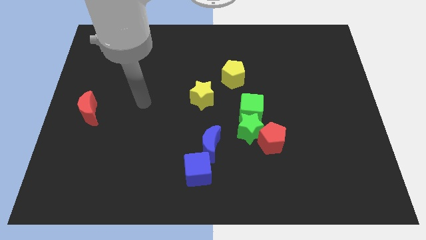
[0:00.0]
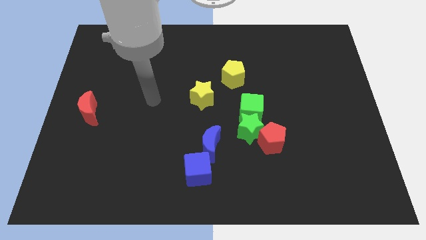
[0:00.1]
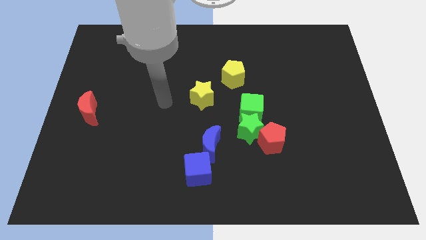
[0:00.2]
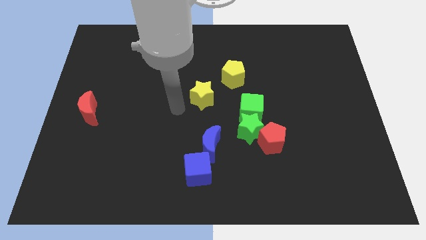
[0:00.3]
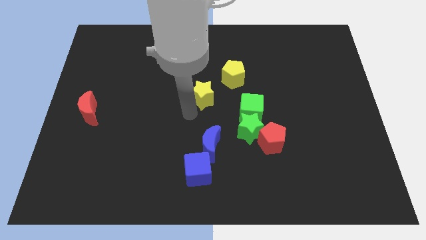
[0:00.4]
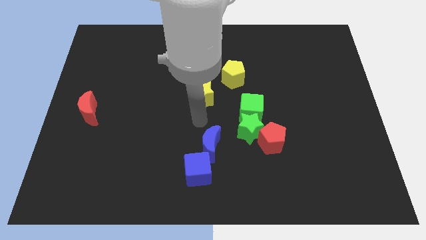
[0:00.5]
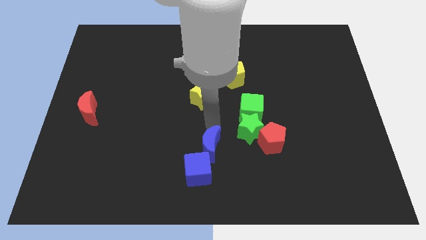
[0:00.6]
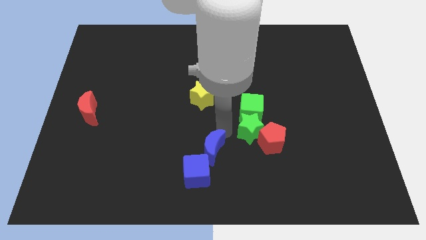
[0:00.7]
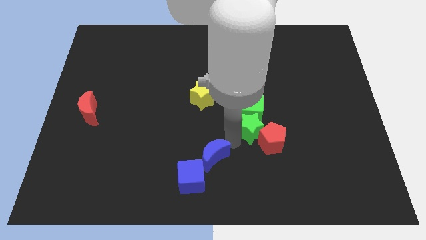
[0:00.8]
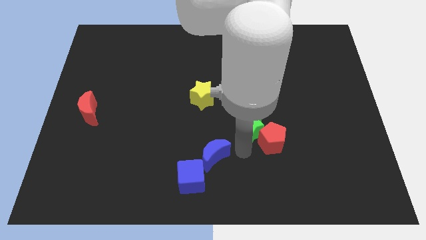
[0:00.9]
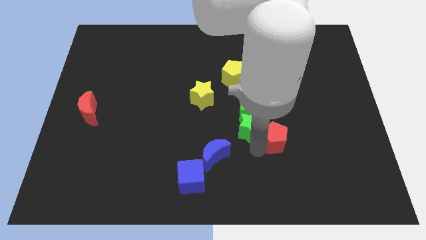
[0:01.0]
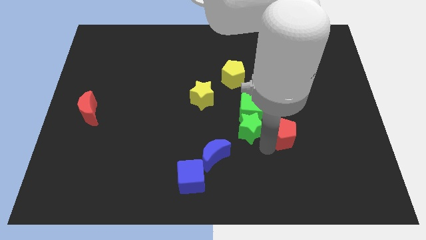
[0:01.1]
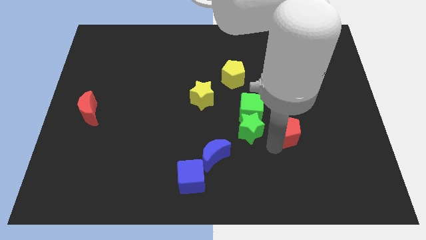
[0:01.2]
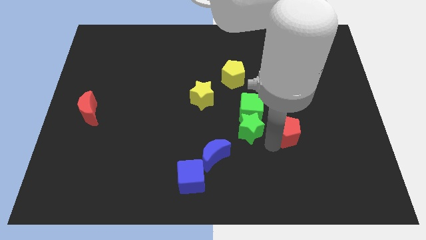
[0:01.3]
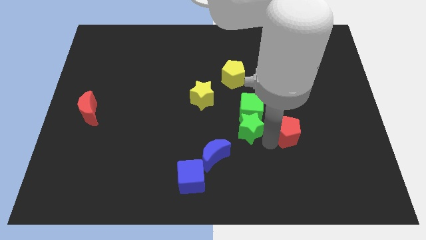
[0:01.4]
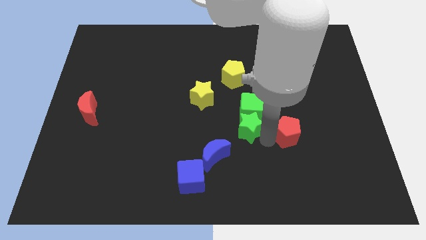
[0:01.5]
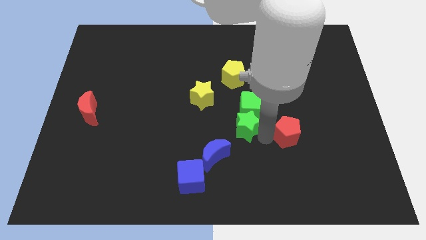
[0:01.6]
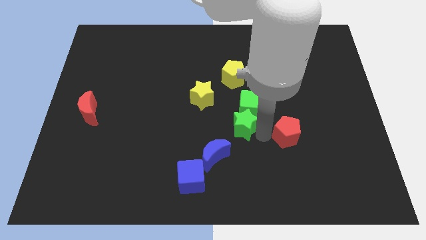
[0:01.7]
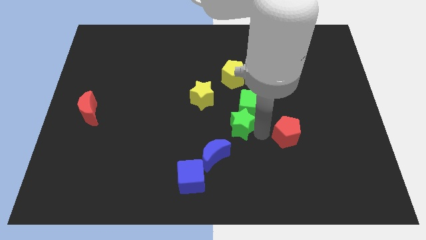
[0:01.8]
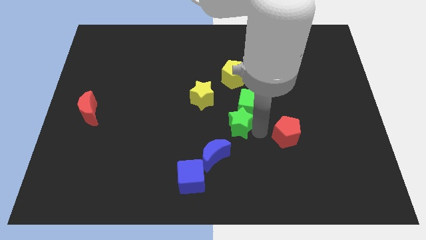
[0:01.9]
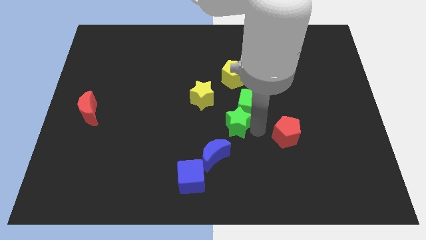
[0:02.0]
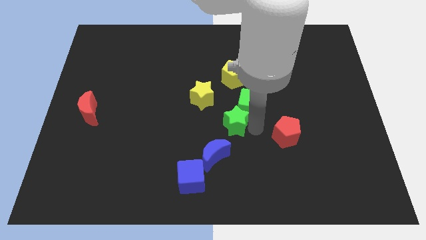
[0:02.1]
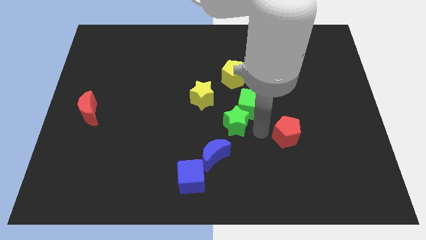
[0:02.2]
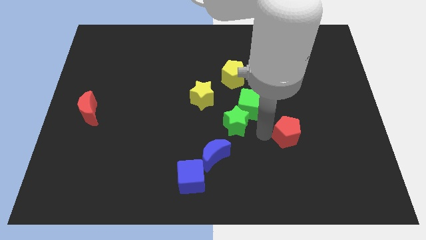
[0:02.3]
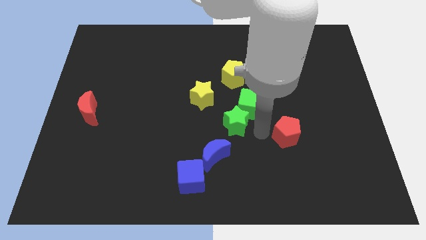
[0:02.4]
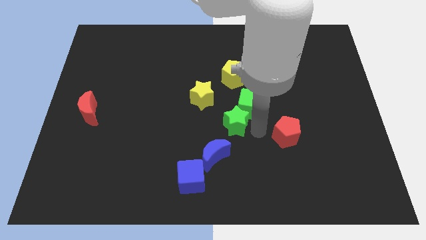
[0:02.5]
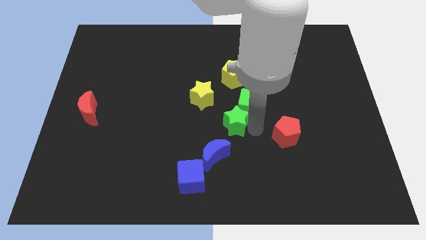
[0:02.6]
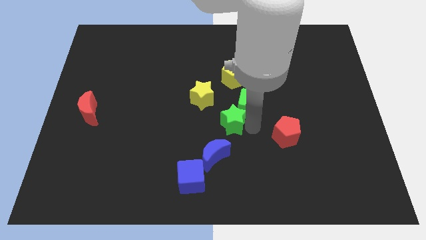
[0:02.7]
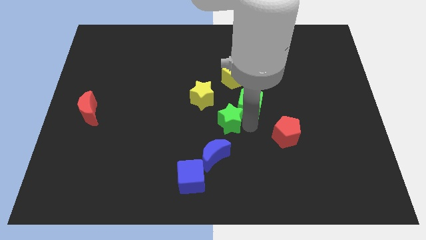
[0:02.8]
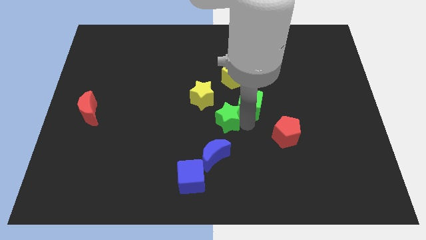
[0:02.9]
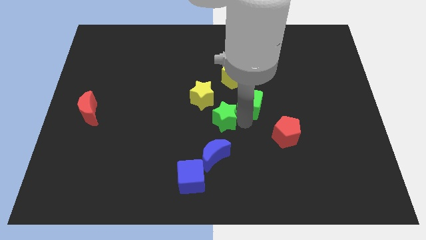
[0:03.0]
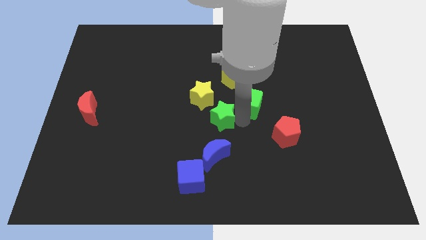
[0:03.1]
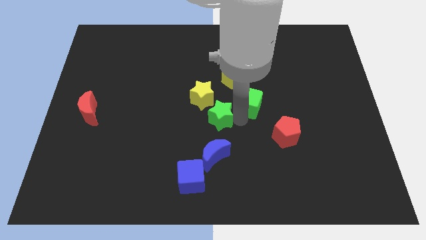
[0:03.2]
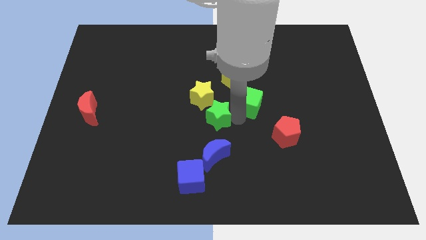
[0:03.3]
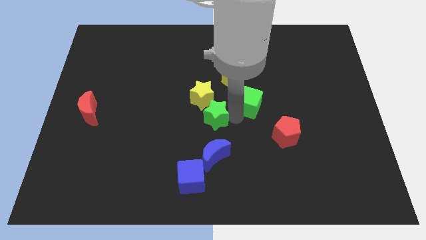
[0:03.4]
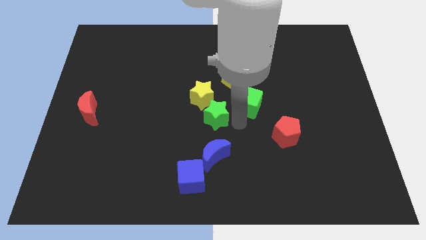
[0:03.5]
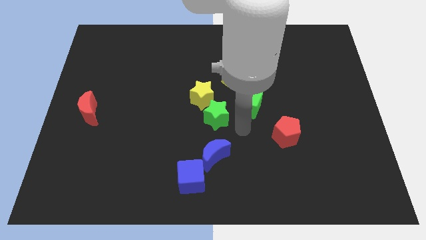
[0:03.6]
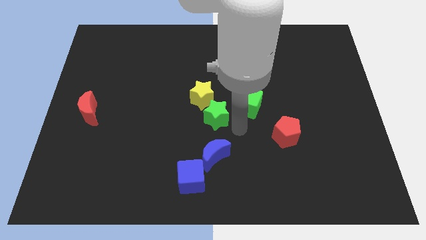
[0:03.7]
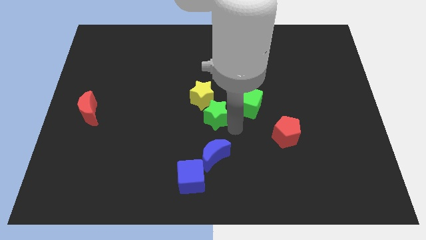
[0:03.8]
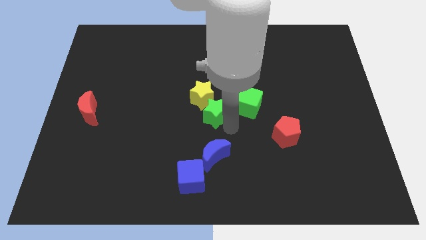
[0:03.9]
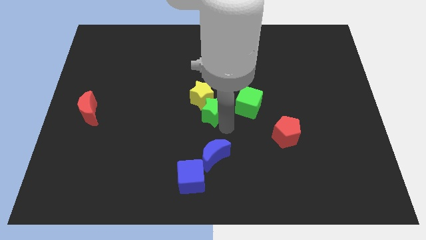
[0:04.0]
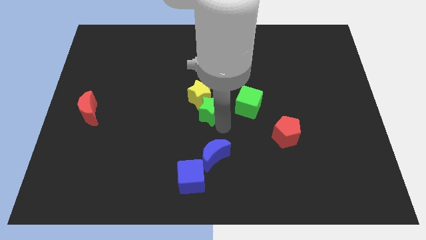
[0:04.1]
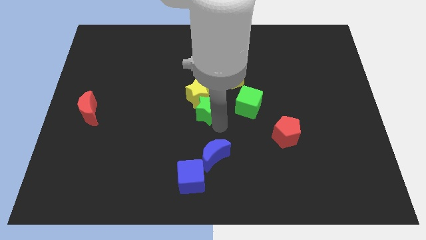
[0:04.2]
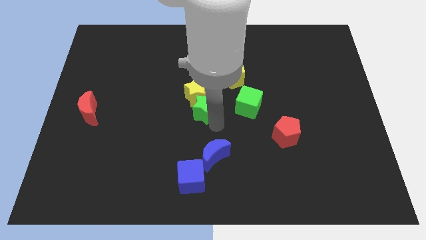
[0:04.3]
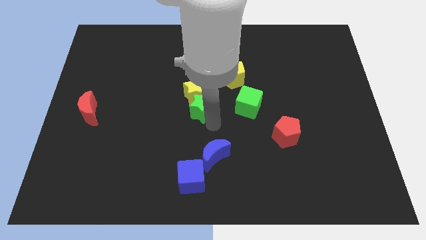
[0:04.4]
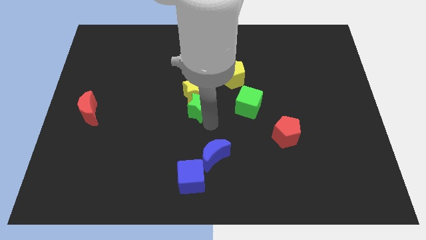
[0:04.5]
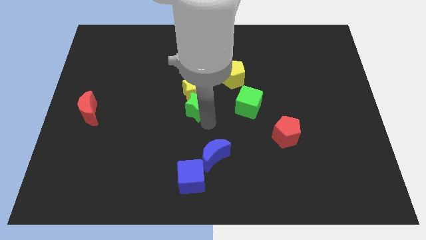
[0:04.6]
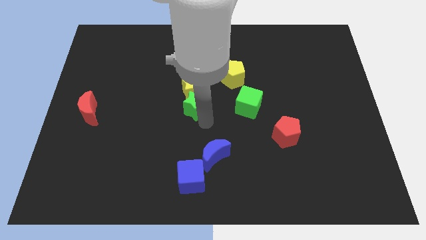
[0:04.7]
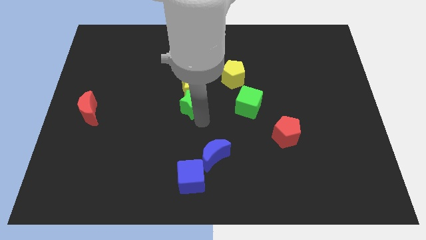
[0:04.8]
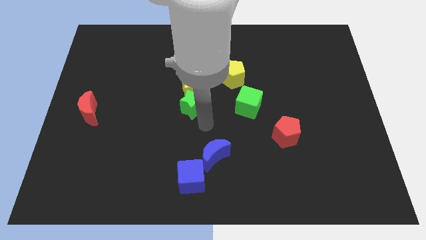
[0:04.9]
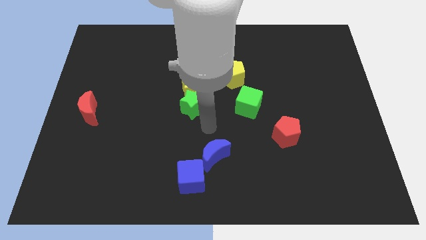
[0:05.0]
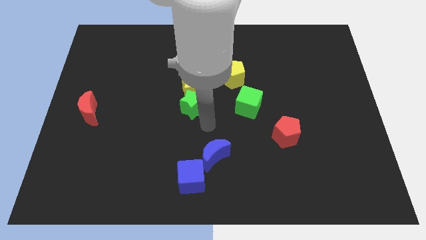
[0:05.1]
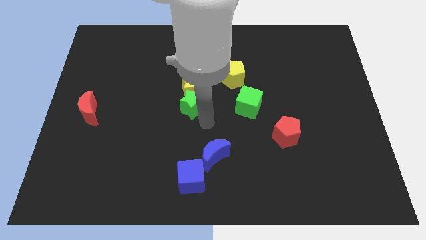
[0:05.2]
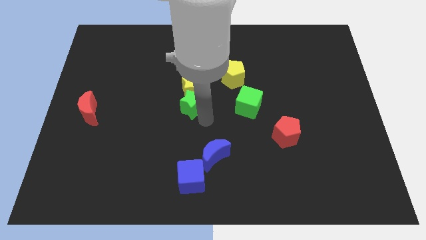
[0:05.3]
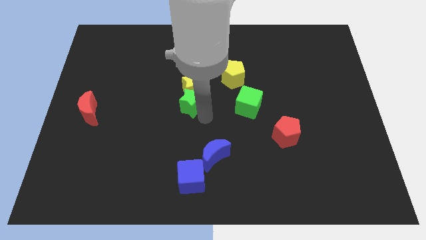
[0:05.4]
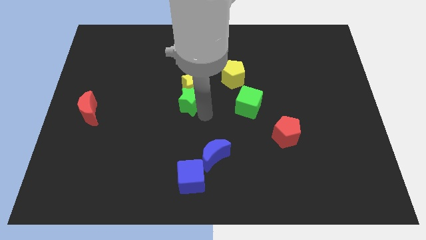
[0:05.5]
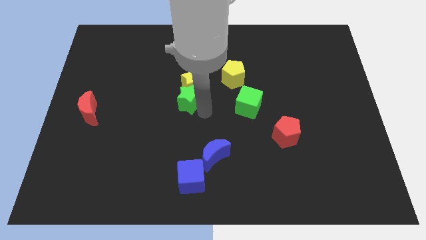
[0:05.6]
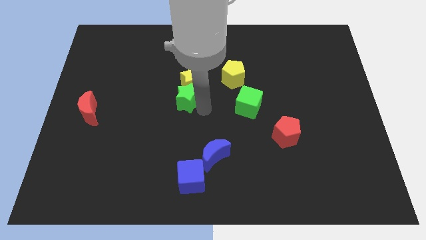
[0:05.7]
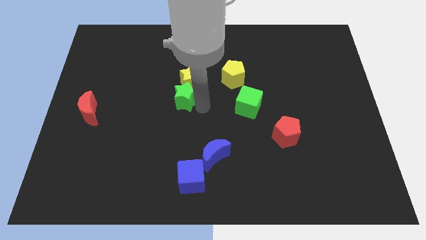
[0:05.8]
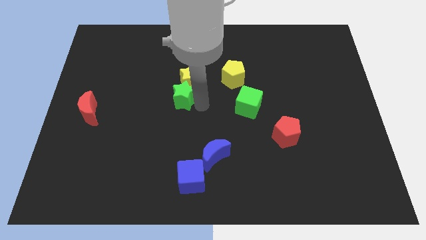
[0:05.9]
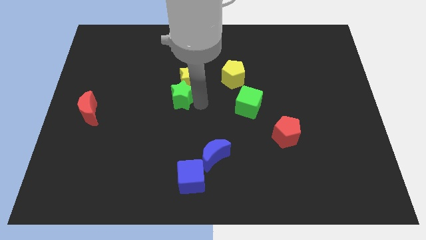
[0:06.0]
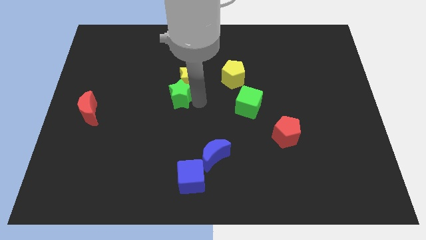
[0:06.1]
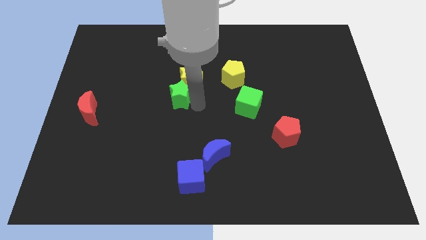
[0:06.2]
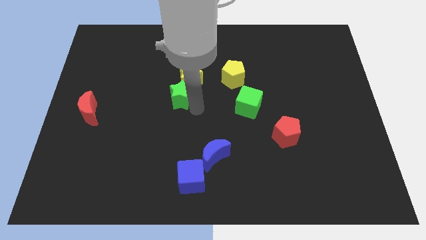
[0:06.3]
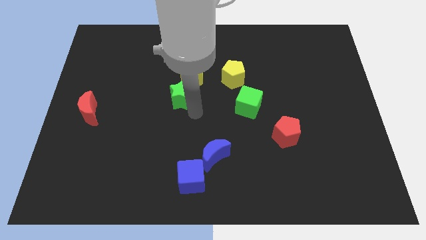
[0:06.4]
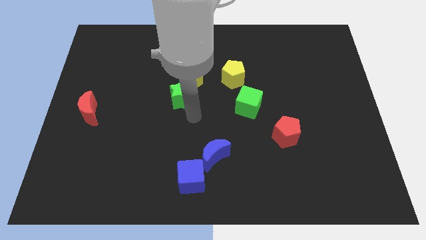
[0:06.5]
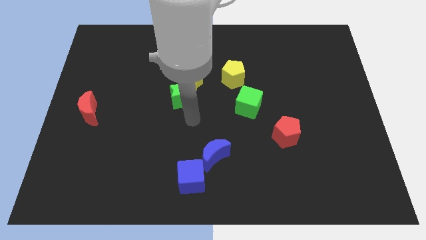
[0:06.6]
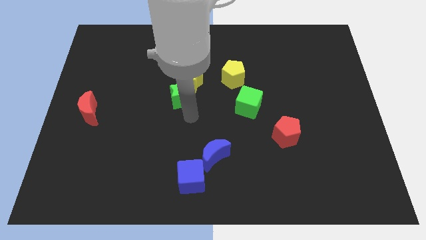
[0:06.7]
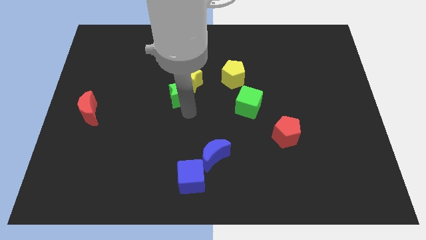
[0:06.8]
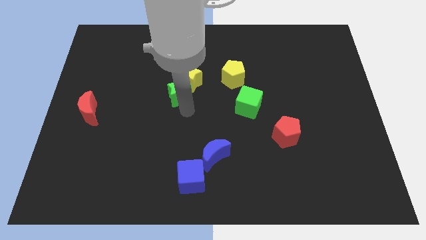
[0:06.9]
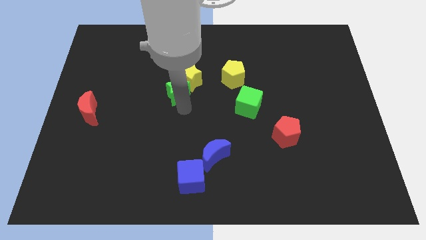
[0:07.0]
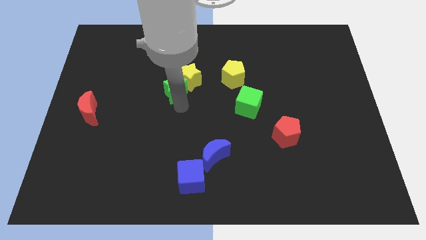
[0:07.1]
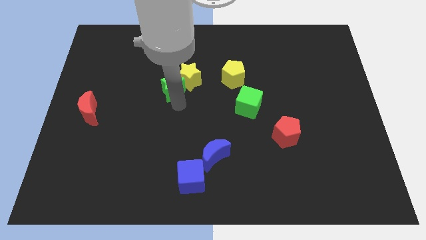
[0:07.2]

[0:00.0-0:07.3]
move the green star upwards and left diagonally

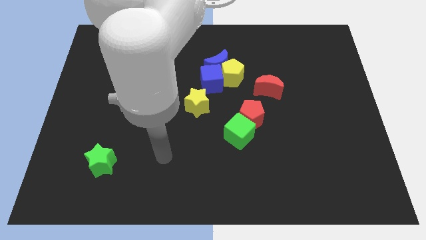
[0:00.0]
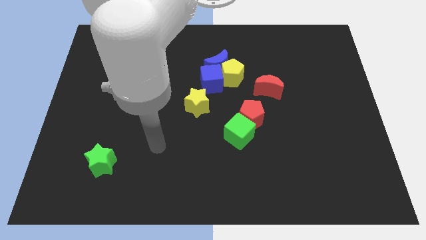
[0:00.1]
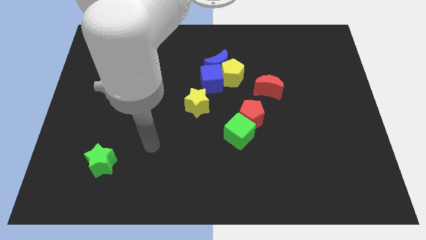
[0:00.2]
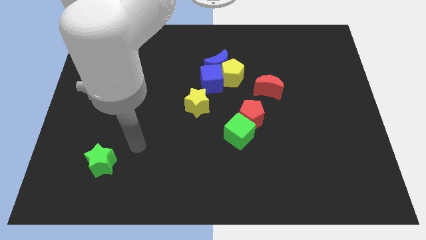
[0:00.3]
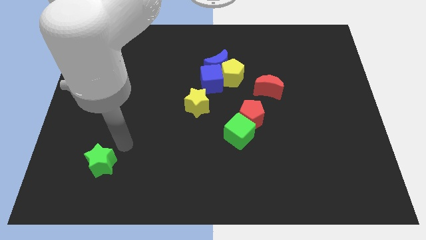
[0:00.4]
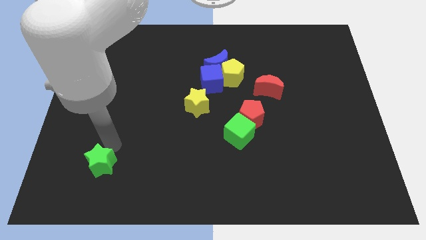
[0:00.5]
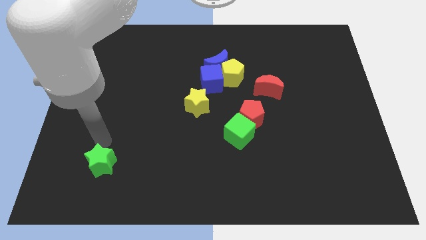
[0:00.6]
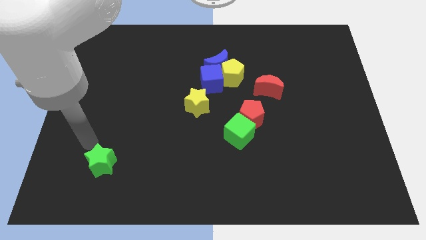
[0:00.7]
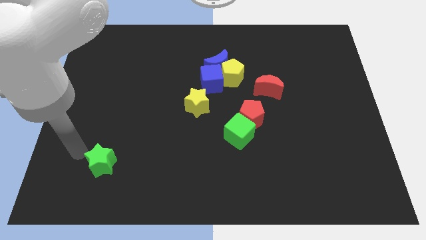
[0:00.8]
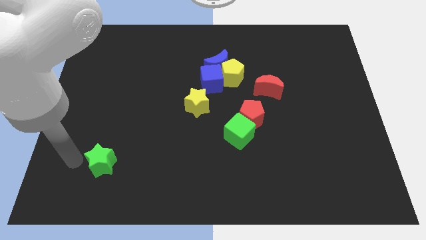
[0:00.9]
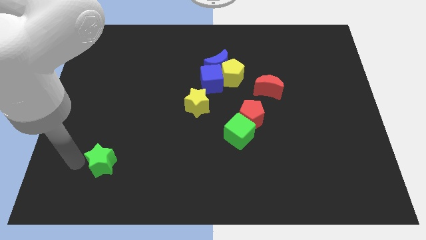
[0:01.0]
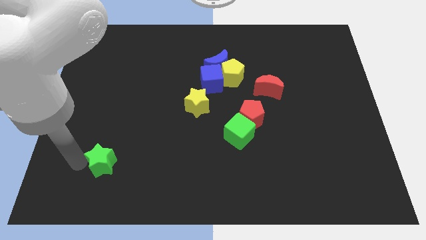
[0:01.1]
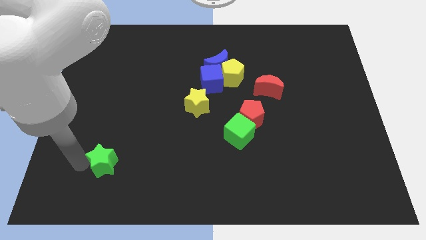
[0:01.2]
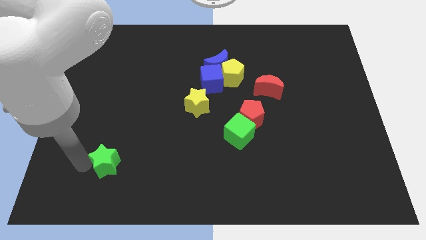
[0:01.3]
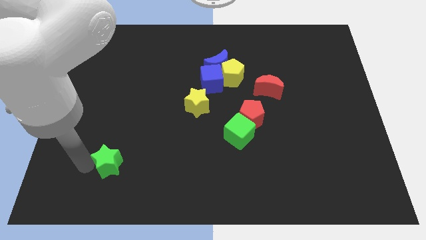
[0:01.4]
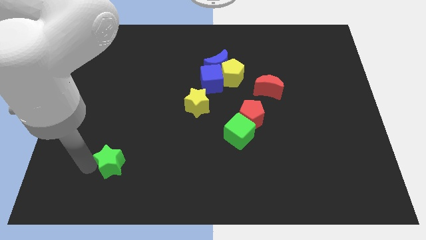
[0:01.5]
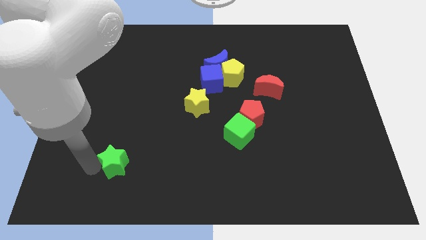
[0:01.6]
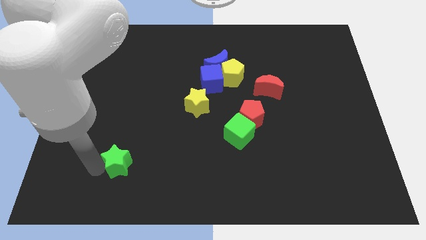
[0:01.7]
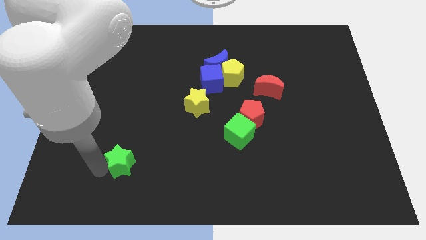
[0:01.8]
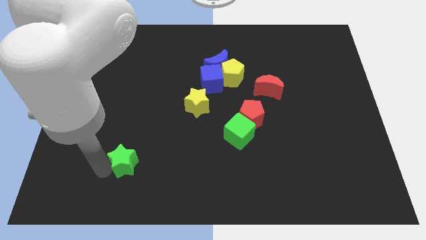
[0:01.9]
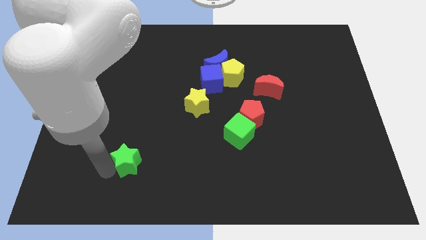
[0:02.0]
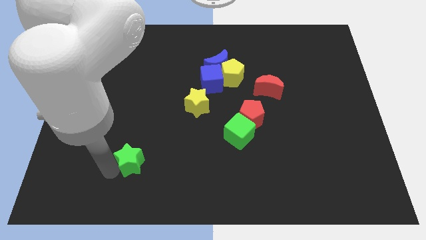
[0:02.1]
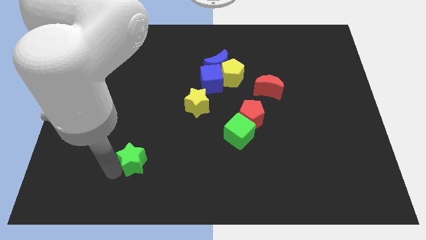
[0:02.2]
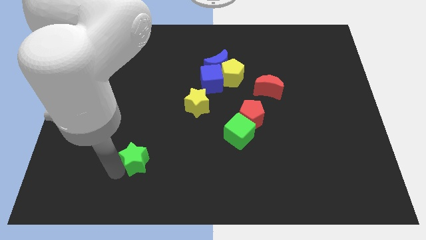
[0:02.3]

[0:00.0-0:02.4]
slightly push the green star to the right
